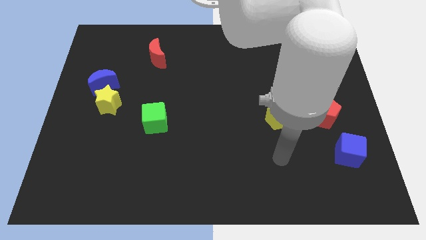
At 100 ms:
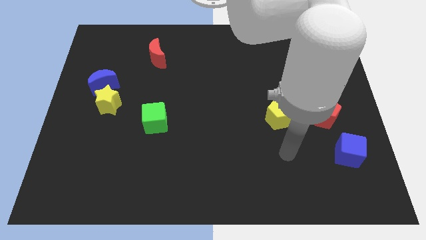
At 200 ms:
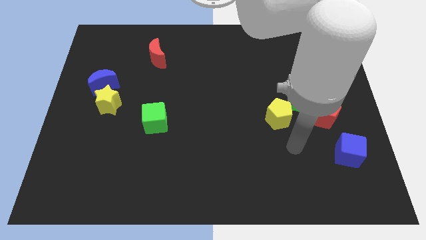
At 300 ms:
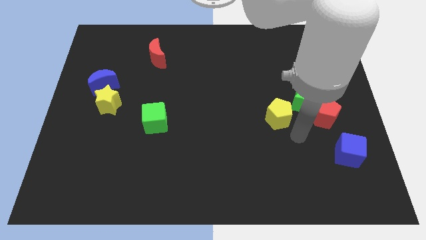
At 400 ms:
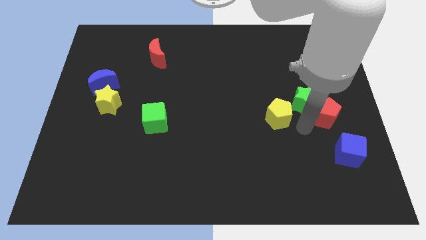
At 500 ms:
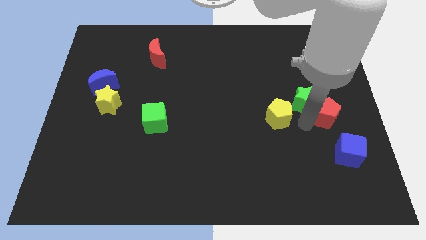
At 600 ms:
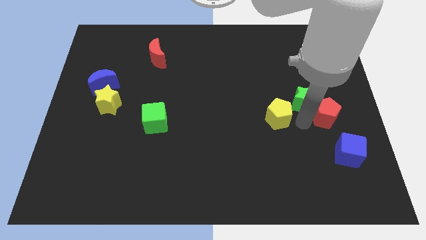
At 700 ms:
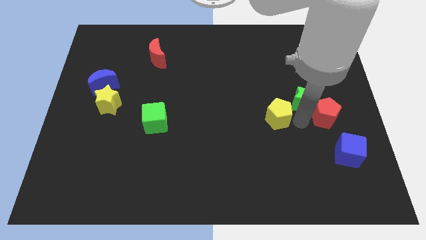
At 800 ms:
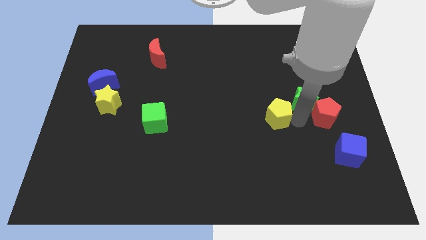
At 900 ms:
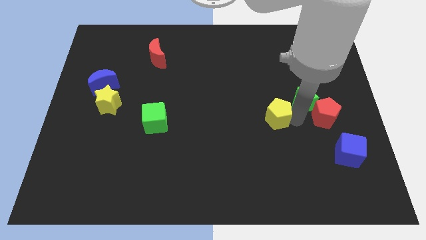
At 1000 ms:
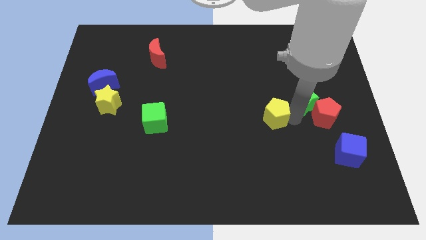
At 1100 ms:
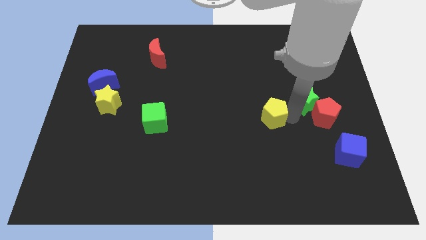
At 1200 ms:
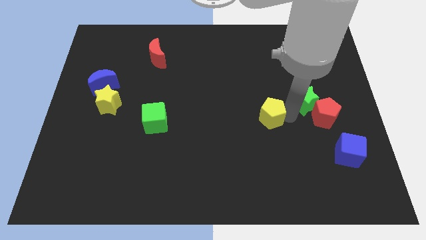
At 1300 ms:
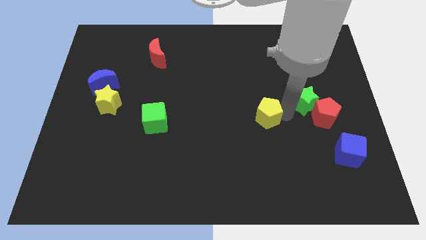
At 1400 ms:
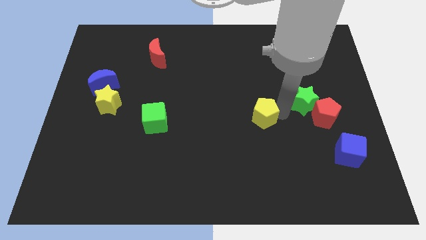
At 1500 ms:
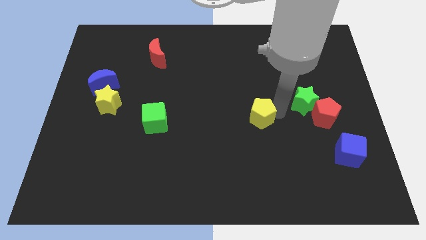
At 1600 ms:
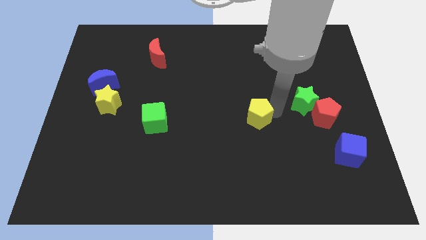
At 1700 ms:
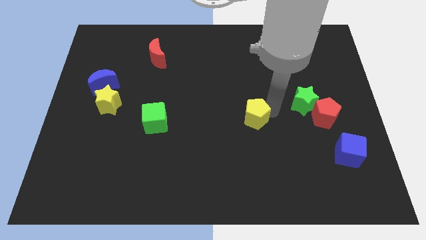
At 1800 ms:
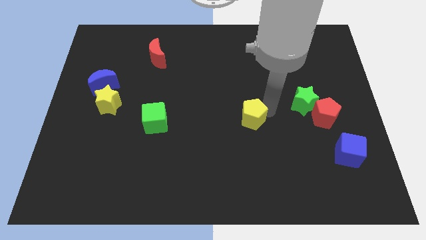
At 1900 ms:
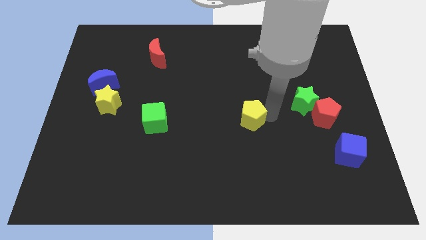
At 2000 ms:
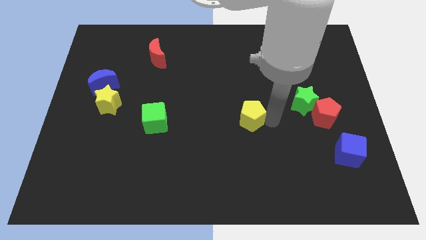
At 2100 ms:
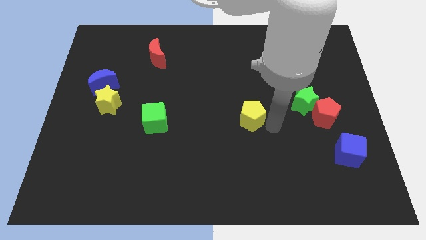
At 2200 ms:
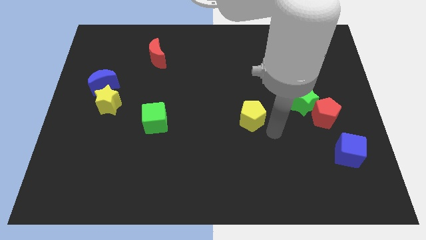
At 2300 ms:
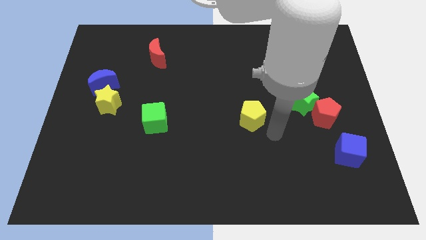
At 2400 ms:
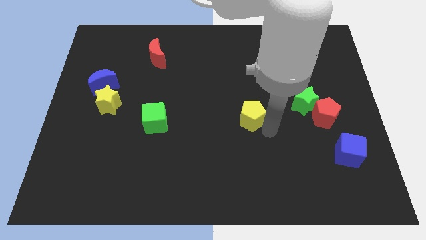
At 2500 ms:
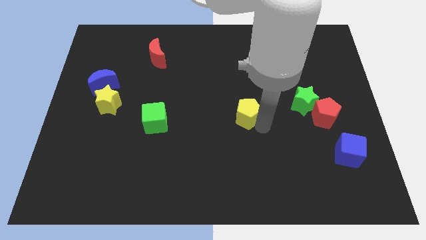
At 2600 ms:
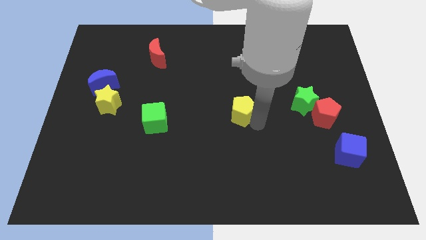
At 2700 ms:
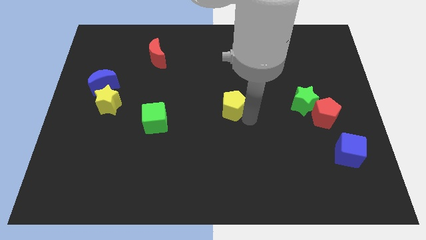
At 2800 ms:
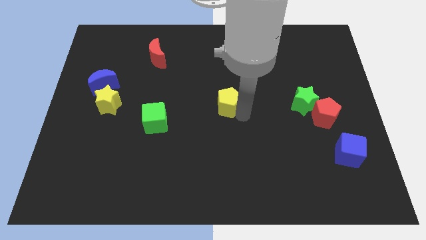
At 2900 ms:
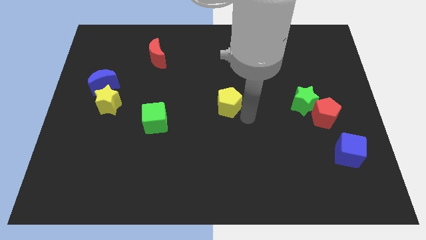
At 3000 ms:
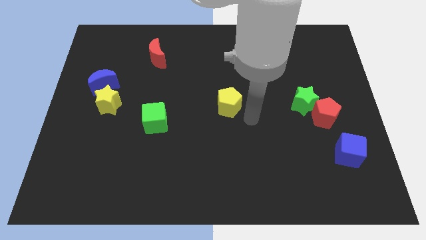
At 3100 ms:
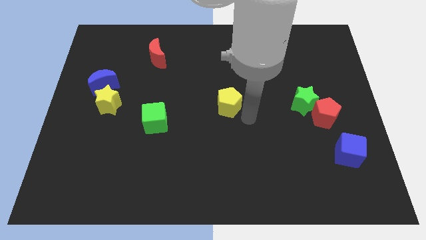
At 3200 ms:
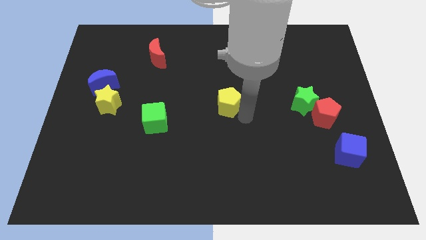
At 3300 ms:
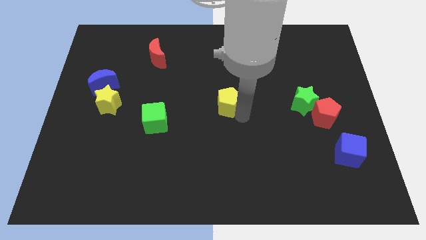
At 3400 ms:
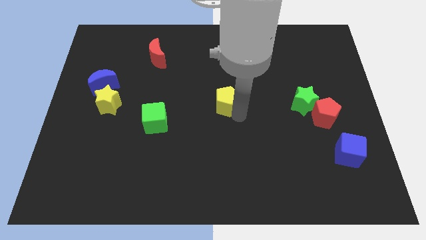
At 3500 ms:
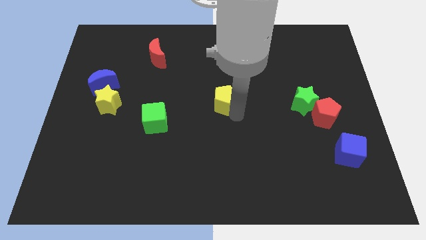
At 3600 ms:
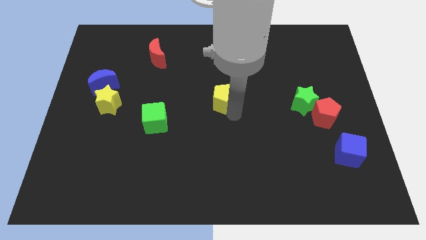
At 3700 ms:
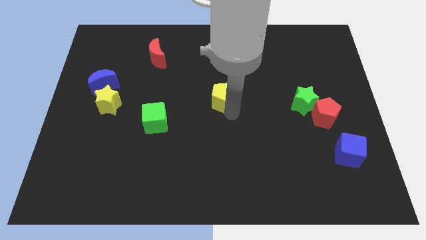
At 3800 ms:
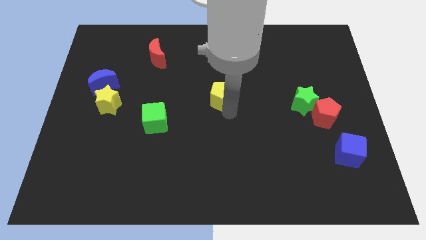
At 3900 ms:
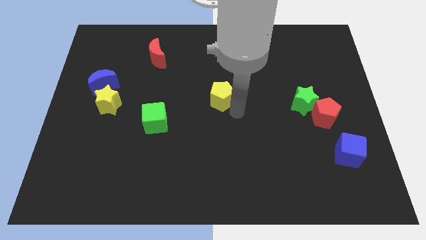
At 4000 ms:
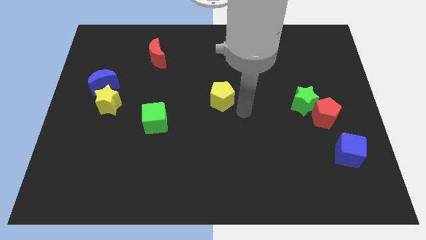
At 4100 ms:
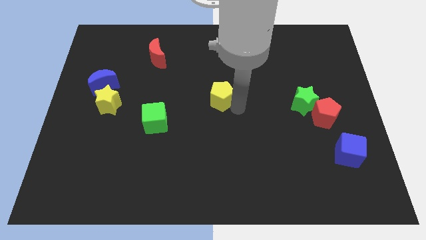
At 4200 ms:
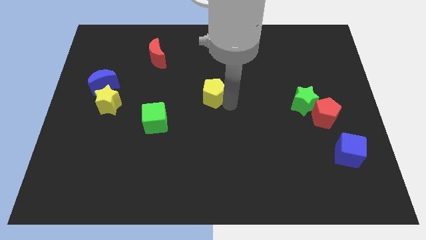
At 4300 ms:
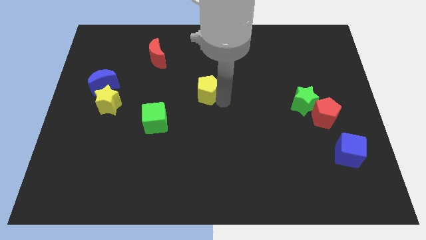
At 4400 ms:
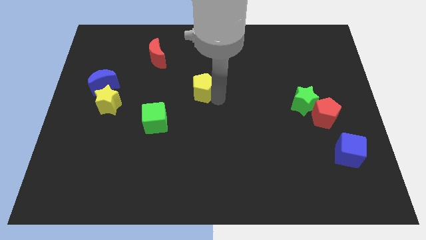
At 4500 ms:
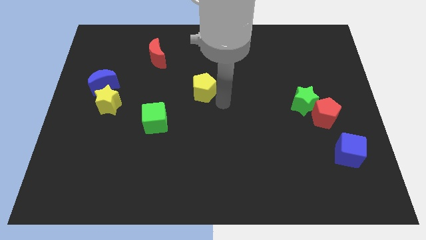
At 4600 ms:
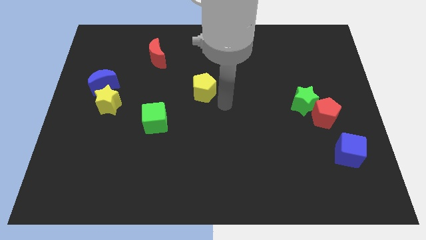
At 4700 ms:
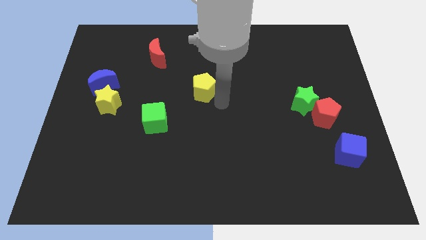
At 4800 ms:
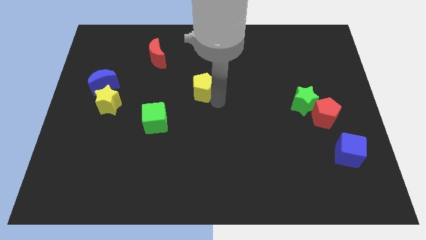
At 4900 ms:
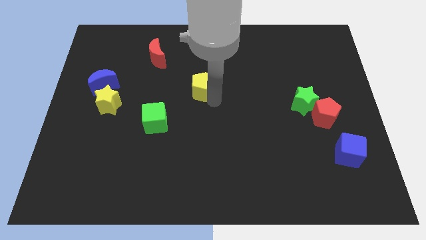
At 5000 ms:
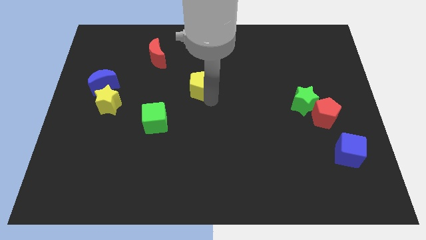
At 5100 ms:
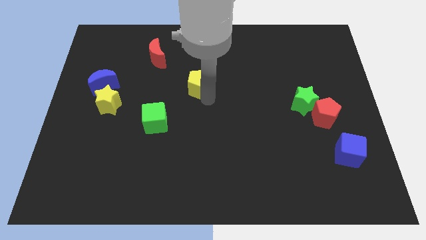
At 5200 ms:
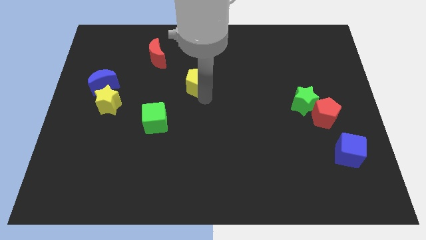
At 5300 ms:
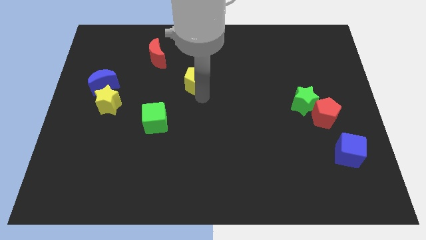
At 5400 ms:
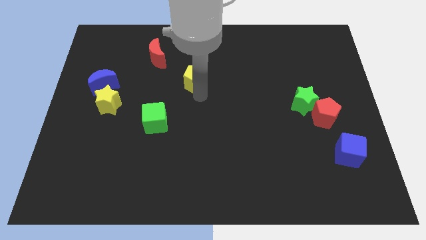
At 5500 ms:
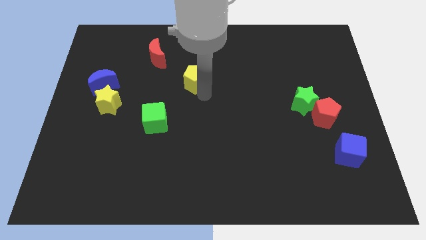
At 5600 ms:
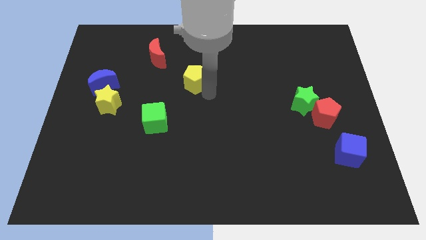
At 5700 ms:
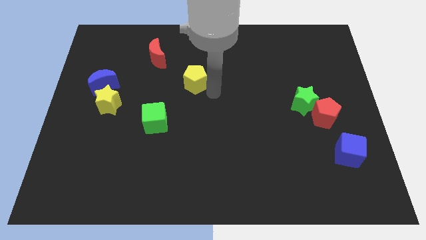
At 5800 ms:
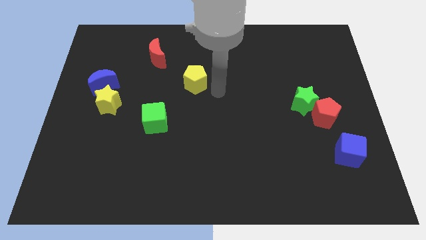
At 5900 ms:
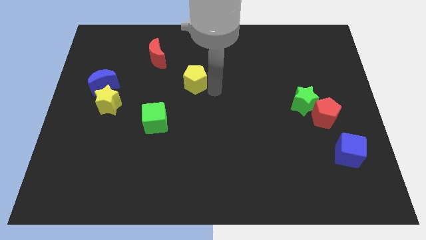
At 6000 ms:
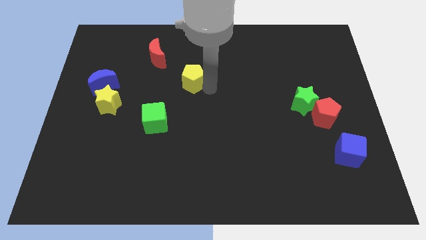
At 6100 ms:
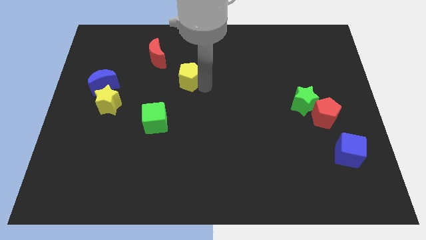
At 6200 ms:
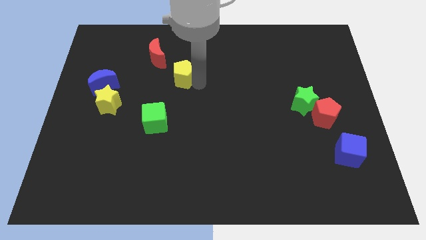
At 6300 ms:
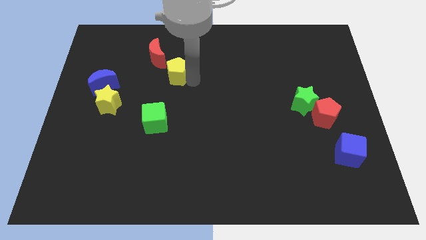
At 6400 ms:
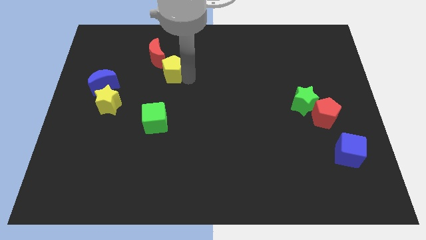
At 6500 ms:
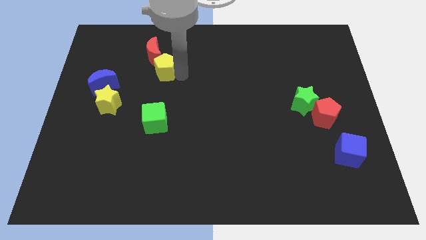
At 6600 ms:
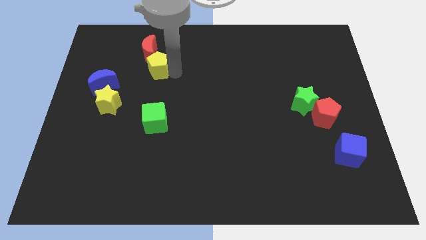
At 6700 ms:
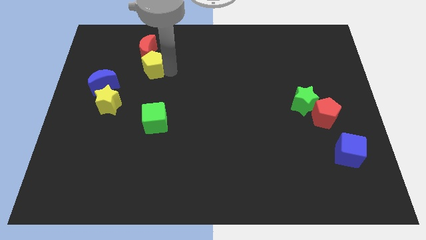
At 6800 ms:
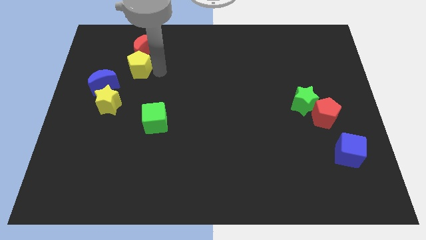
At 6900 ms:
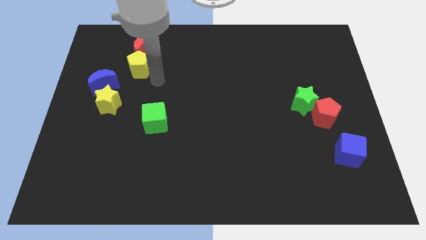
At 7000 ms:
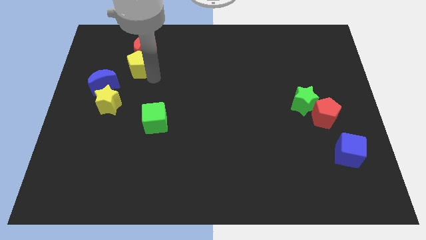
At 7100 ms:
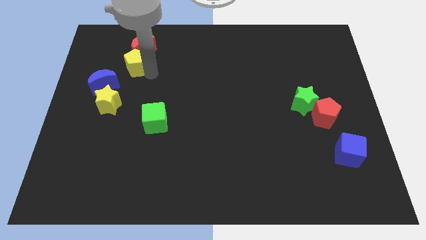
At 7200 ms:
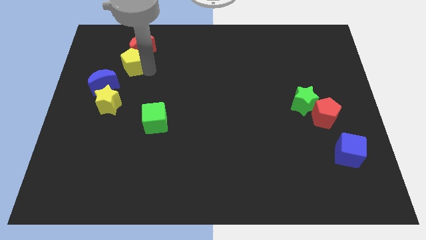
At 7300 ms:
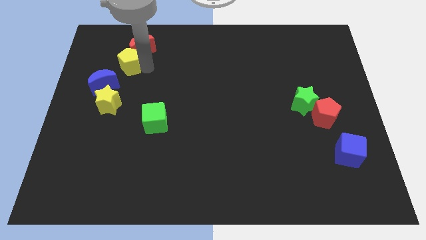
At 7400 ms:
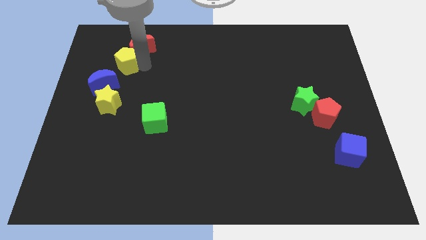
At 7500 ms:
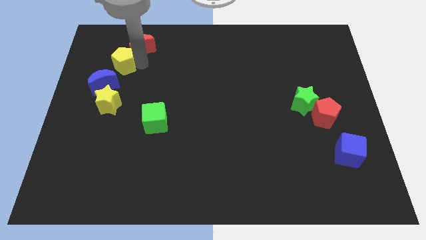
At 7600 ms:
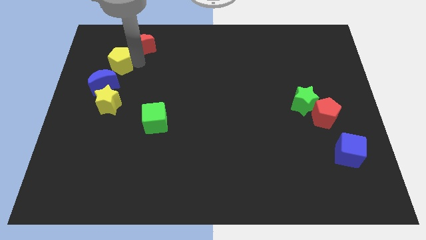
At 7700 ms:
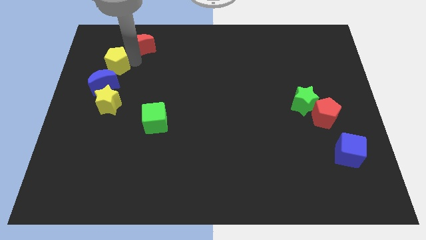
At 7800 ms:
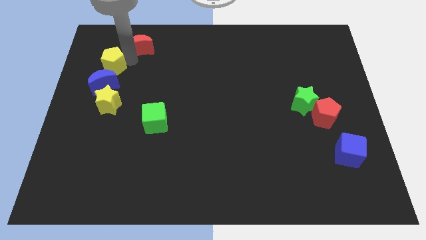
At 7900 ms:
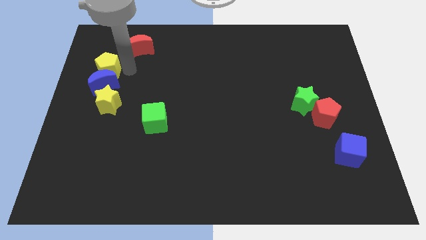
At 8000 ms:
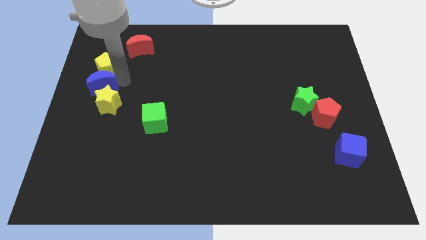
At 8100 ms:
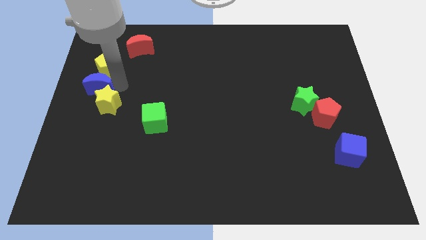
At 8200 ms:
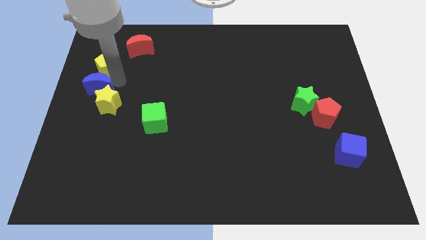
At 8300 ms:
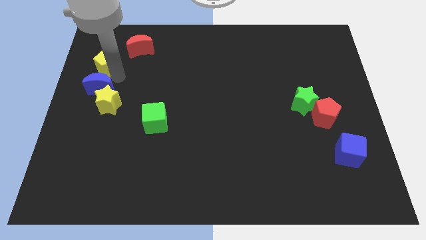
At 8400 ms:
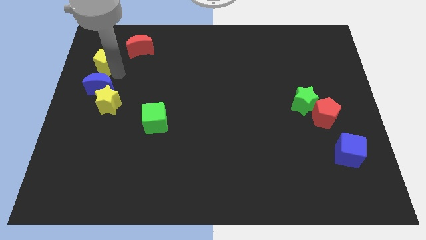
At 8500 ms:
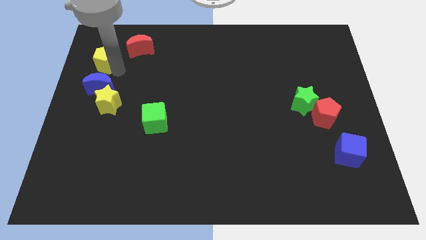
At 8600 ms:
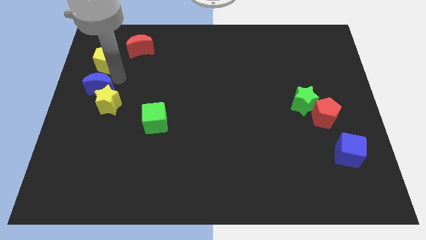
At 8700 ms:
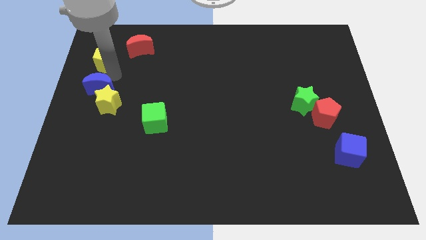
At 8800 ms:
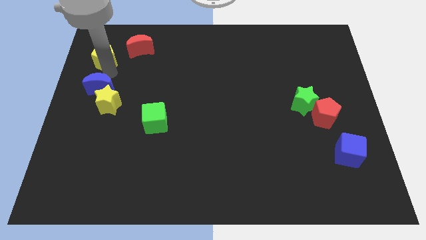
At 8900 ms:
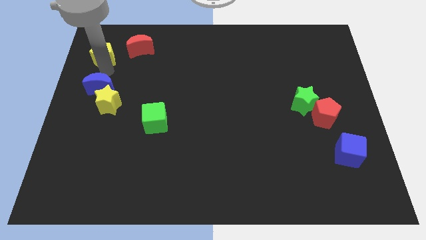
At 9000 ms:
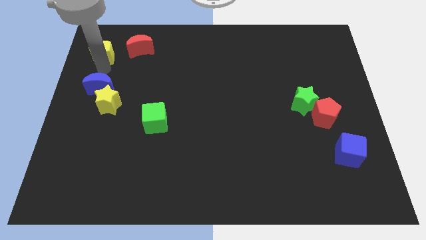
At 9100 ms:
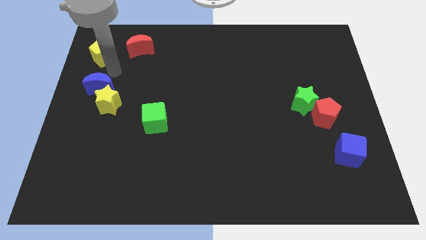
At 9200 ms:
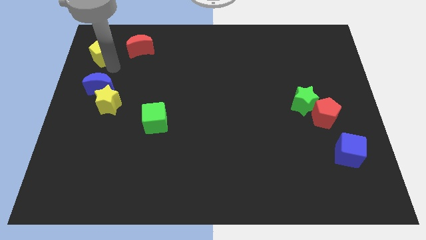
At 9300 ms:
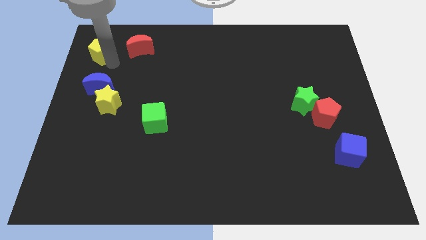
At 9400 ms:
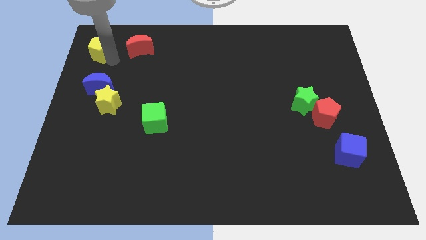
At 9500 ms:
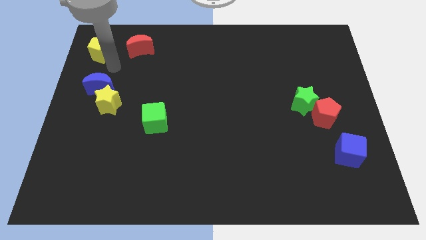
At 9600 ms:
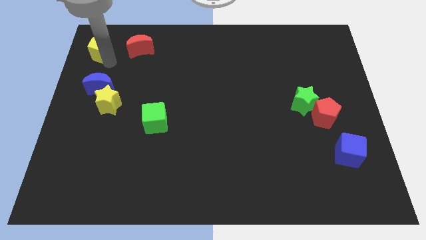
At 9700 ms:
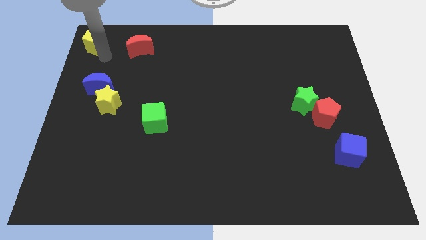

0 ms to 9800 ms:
slide the yellow pentagon to the top left of the board
